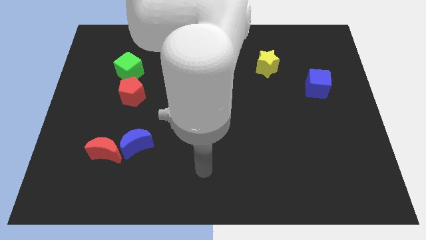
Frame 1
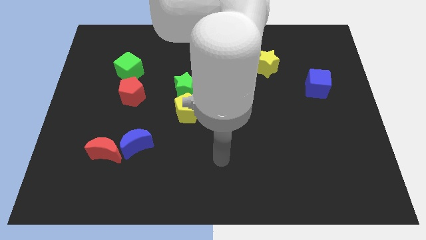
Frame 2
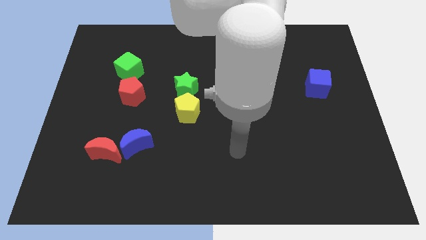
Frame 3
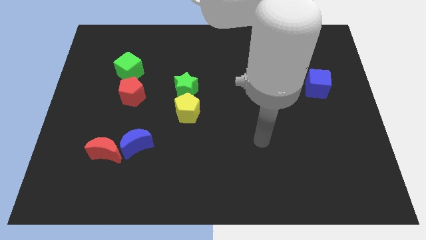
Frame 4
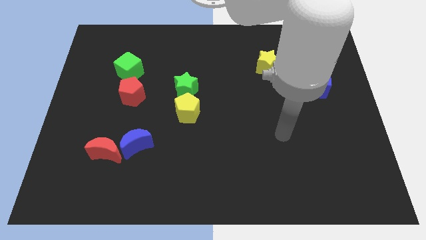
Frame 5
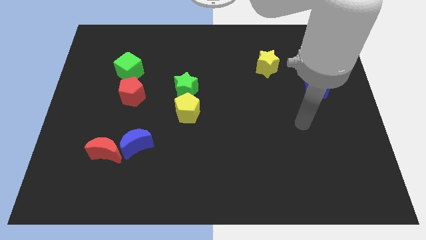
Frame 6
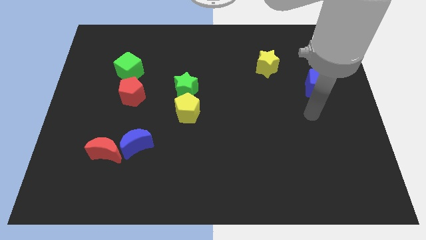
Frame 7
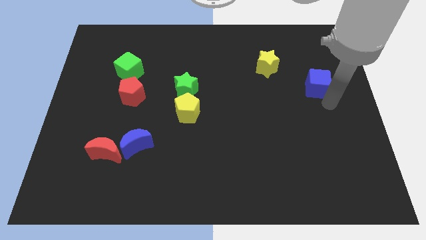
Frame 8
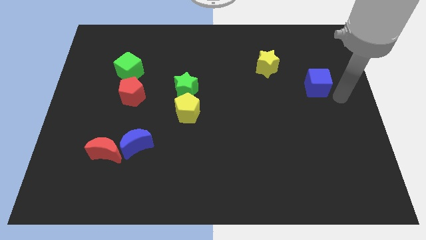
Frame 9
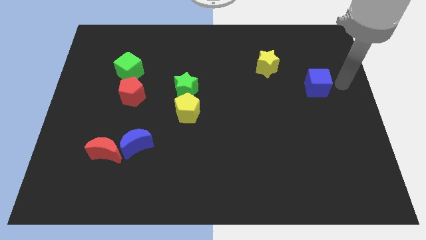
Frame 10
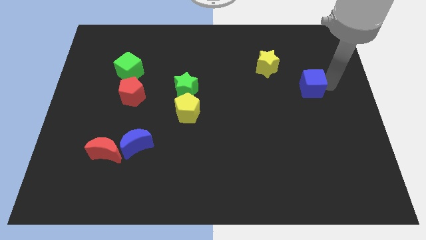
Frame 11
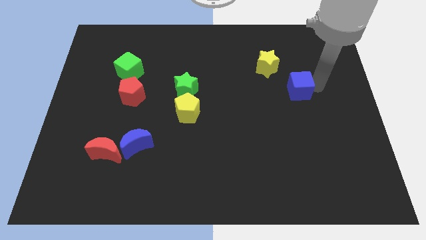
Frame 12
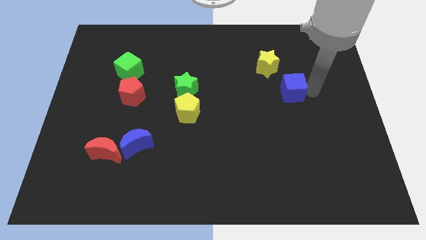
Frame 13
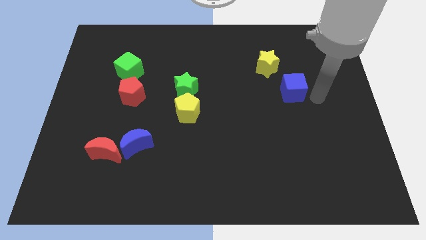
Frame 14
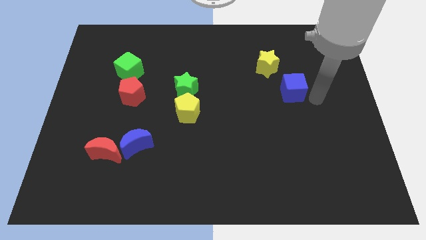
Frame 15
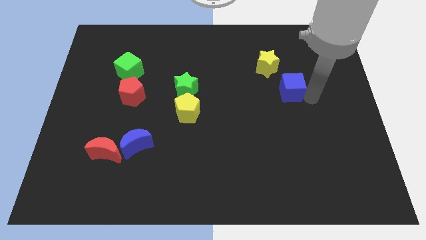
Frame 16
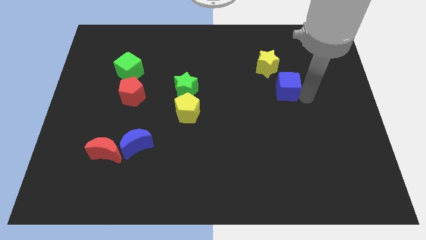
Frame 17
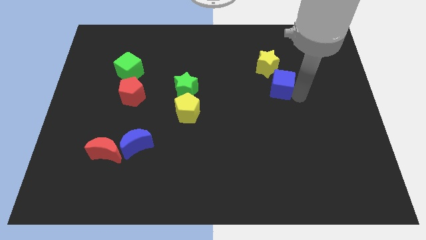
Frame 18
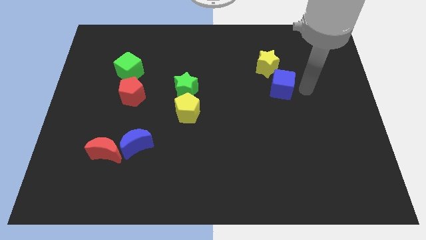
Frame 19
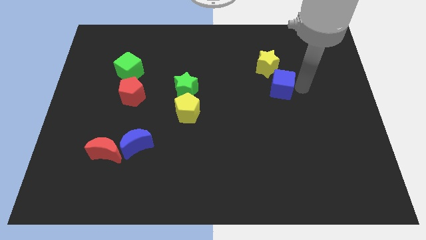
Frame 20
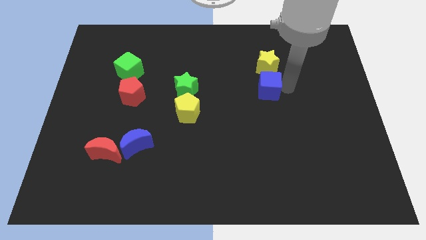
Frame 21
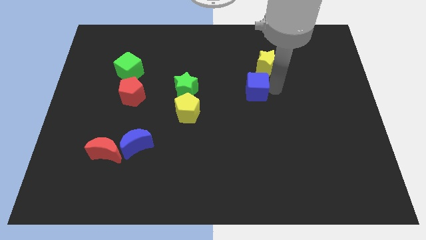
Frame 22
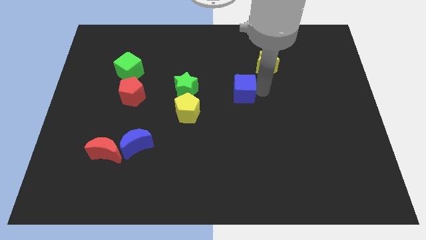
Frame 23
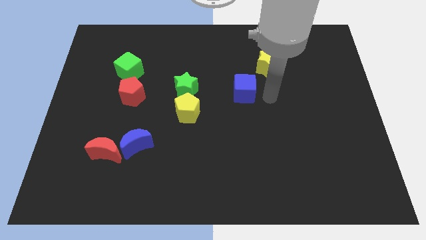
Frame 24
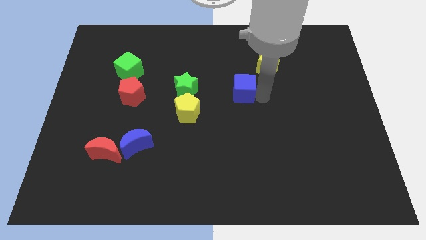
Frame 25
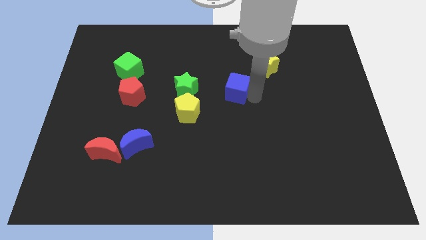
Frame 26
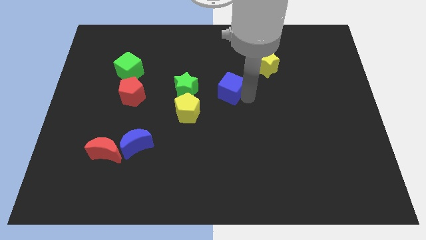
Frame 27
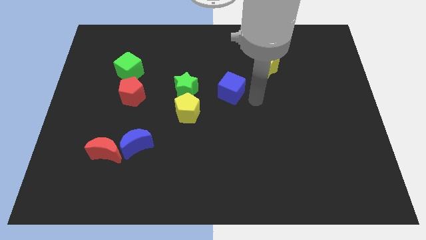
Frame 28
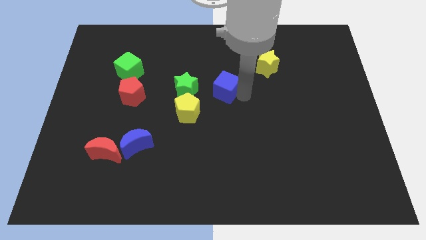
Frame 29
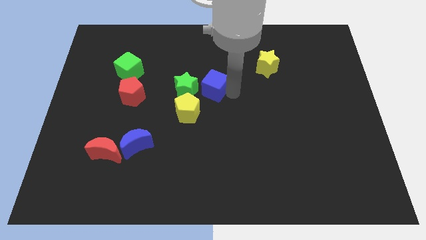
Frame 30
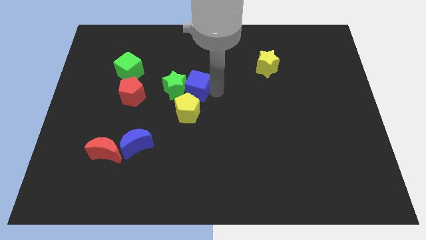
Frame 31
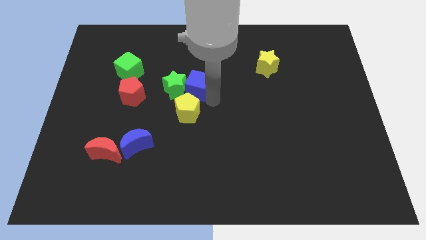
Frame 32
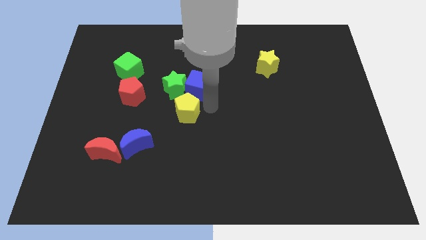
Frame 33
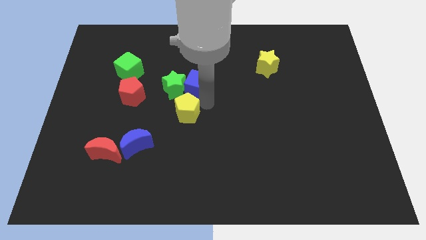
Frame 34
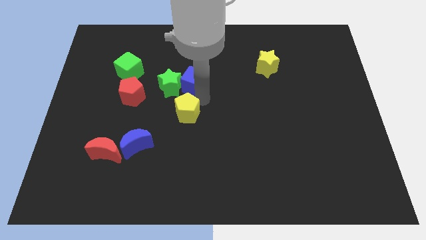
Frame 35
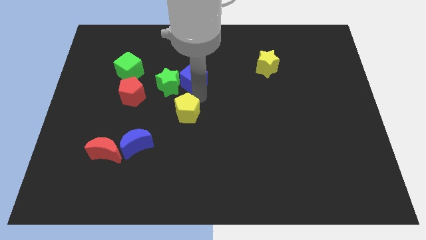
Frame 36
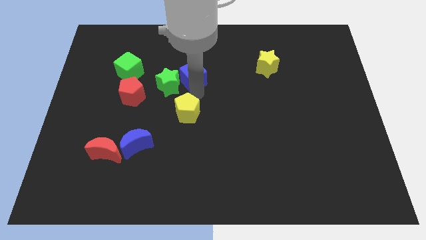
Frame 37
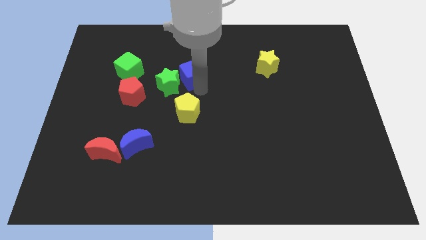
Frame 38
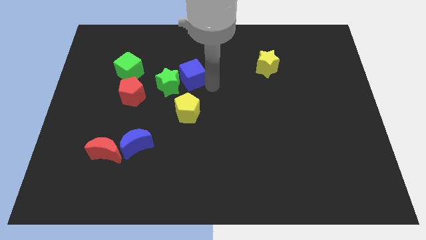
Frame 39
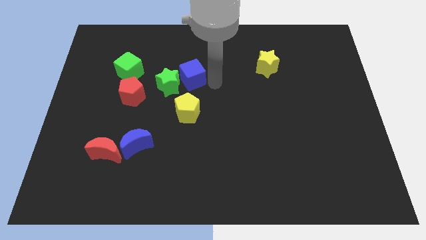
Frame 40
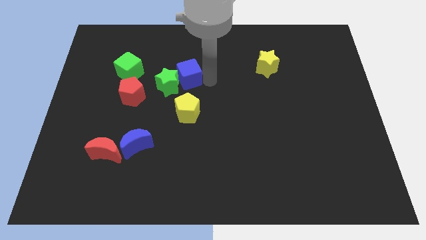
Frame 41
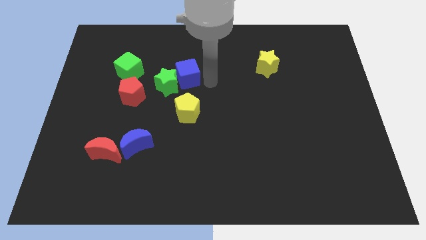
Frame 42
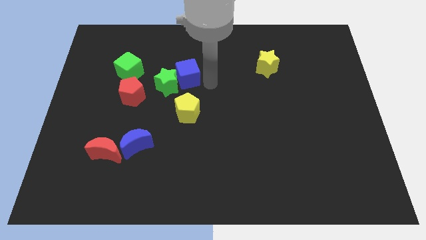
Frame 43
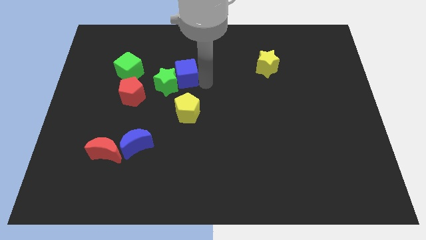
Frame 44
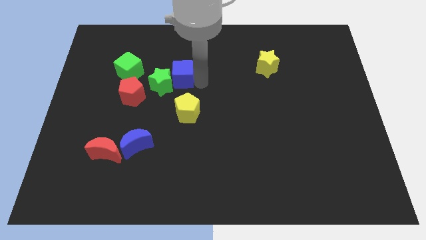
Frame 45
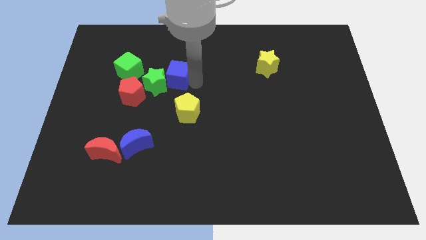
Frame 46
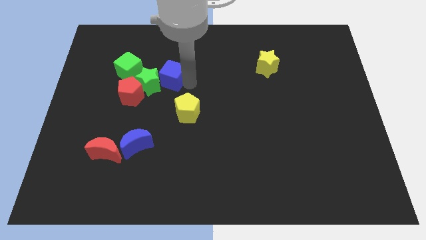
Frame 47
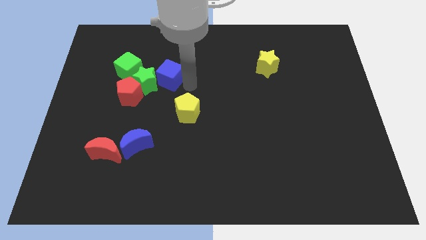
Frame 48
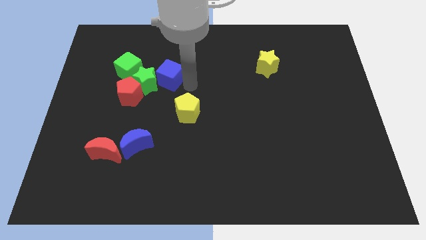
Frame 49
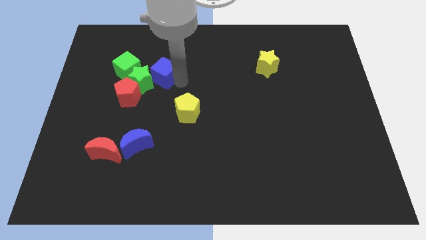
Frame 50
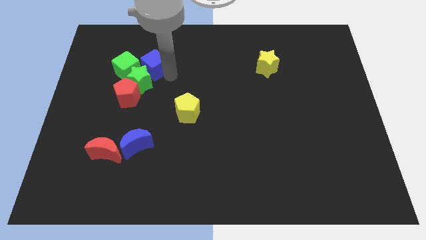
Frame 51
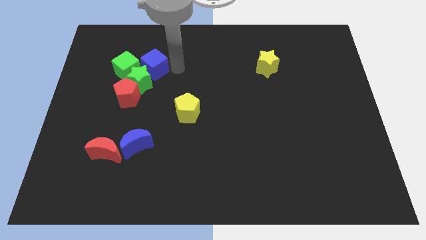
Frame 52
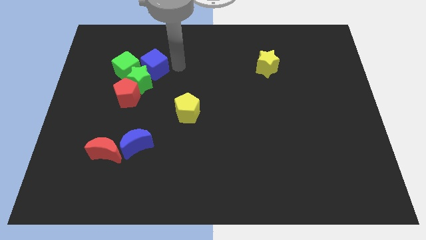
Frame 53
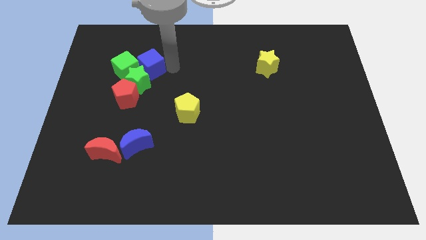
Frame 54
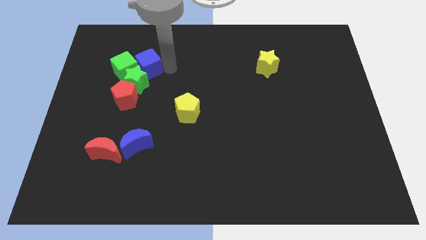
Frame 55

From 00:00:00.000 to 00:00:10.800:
slide the blue cube towards the green cube

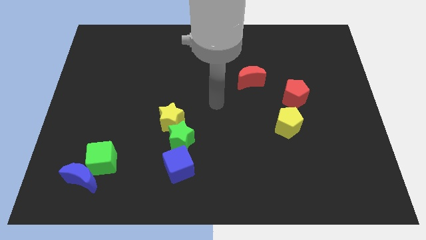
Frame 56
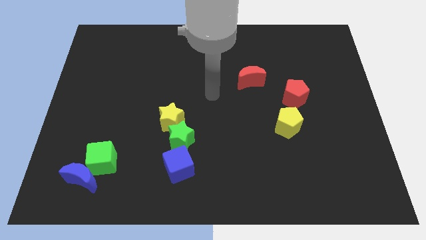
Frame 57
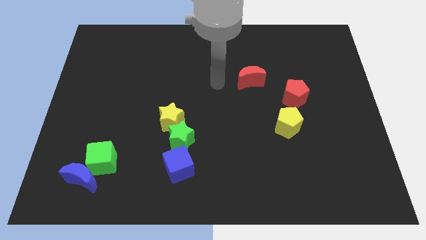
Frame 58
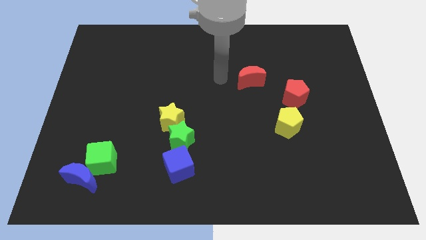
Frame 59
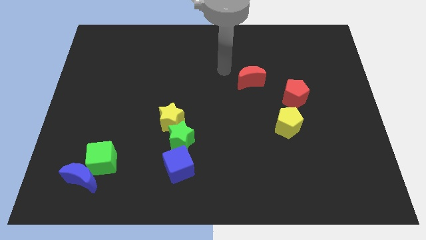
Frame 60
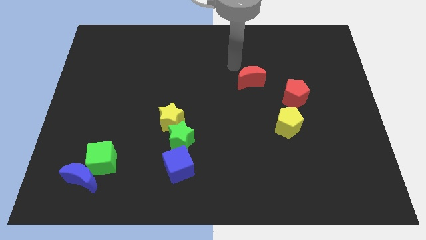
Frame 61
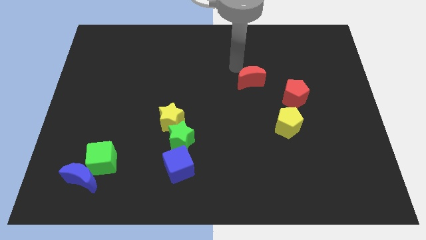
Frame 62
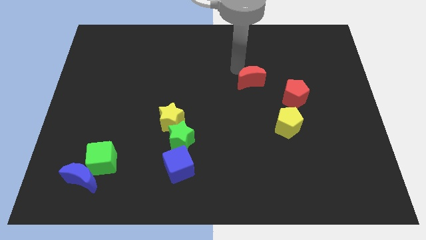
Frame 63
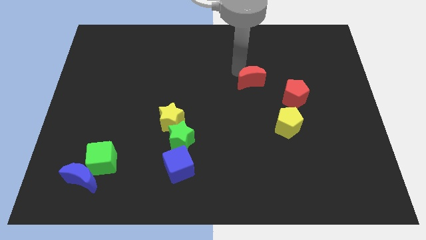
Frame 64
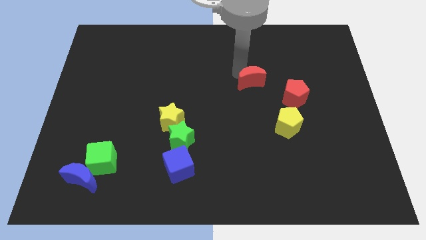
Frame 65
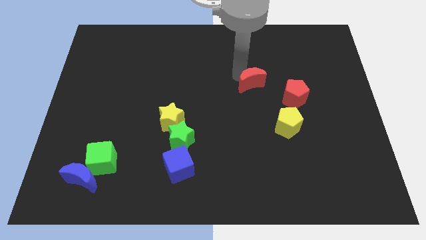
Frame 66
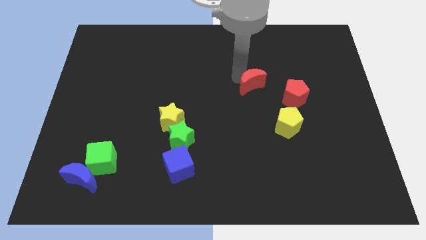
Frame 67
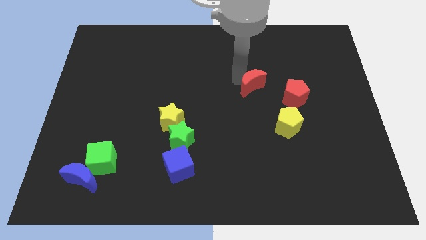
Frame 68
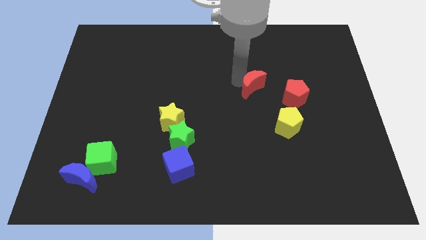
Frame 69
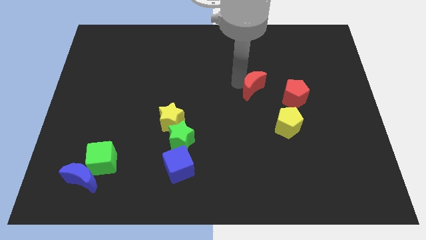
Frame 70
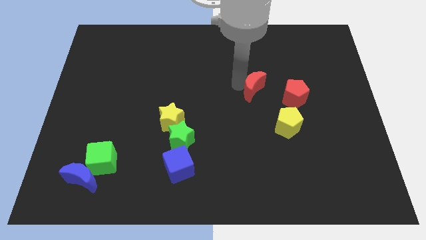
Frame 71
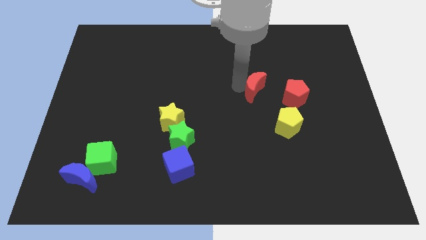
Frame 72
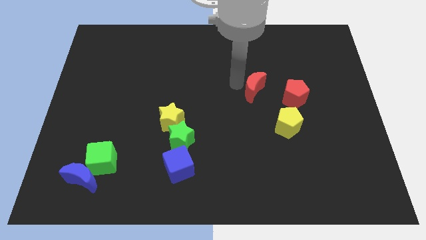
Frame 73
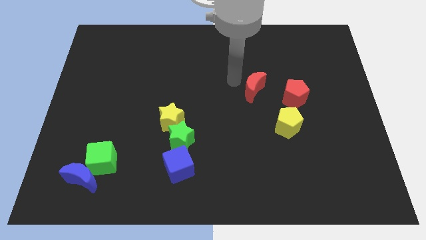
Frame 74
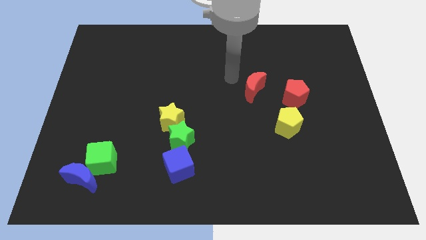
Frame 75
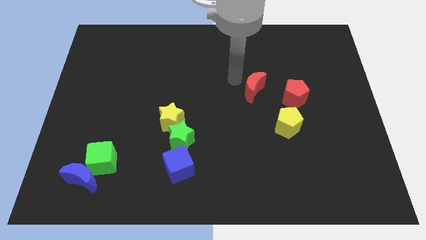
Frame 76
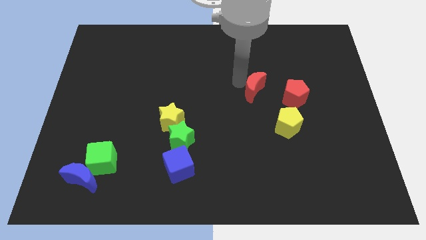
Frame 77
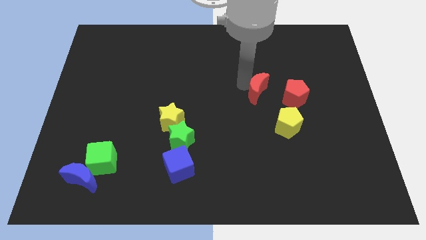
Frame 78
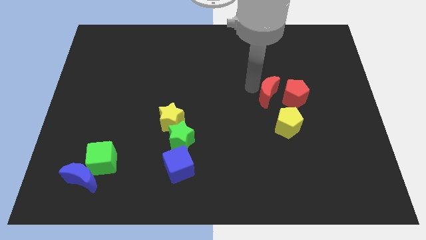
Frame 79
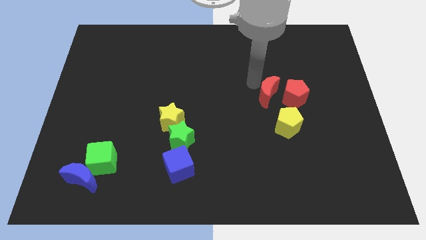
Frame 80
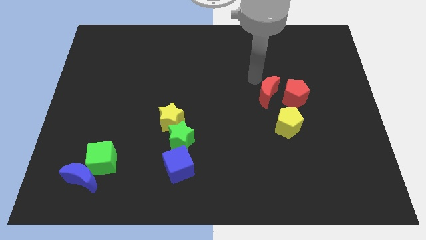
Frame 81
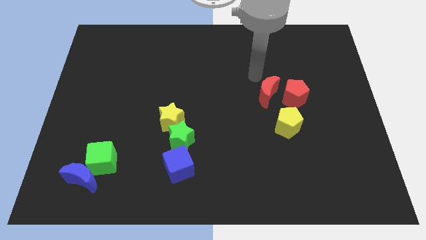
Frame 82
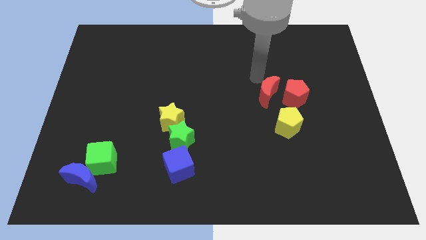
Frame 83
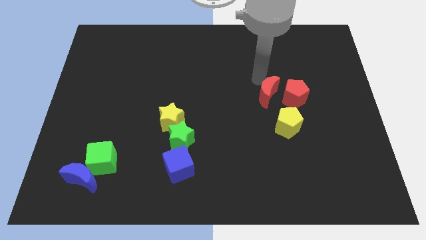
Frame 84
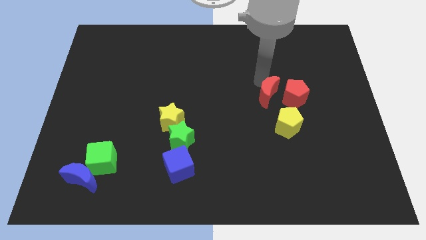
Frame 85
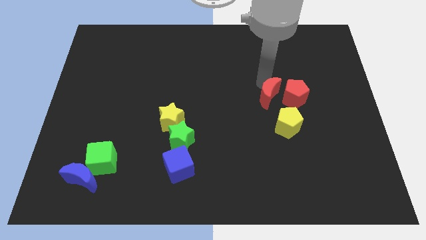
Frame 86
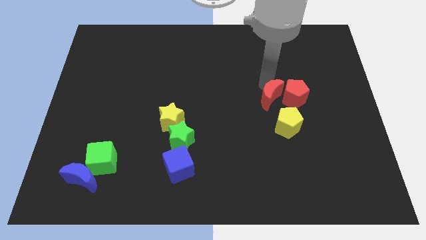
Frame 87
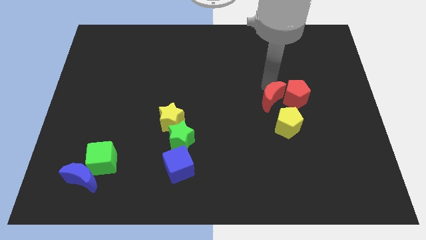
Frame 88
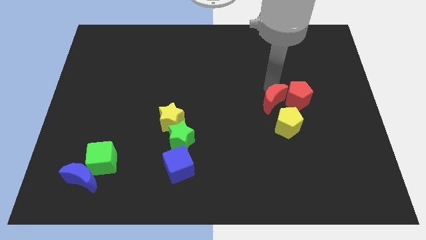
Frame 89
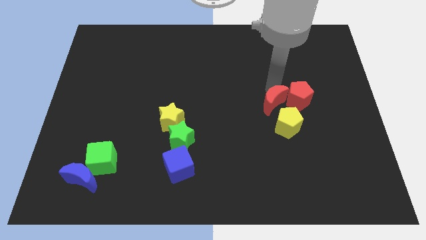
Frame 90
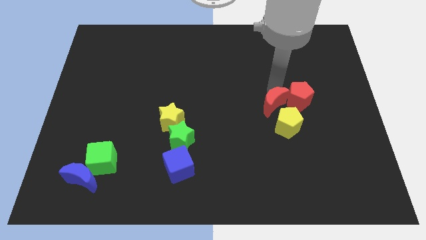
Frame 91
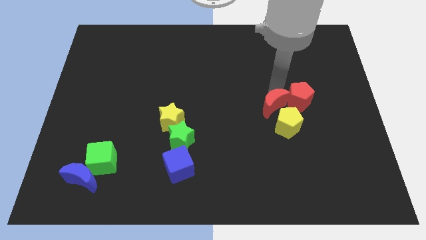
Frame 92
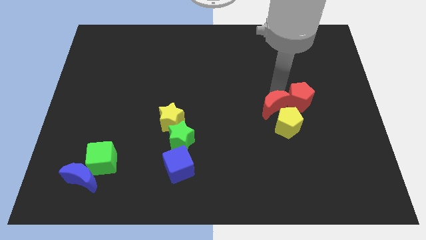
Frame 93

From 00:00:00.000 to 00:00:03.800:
slide the red moon towards the yellow pentagon
